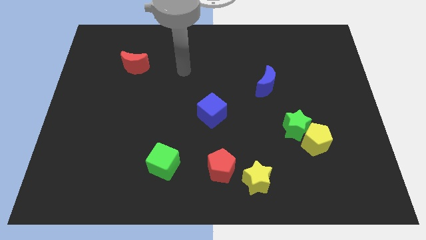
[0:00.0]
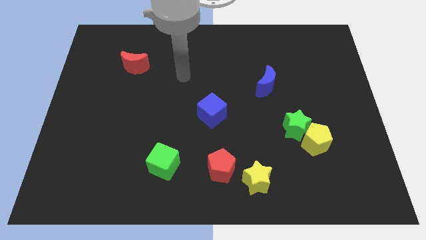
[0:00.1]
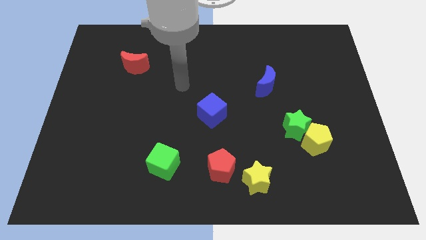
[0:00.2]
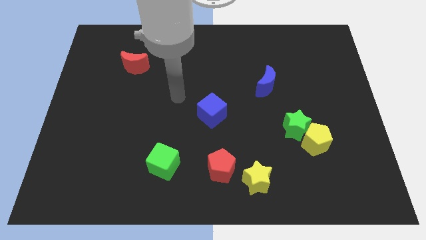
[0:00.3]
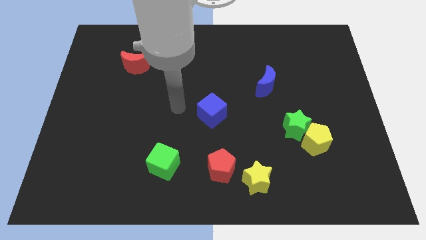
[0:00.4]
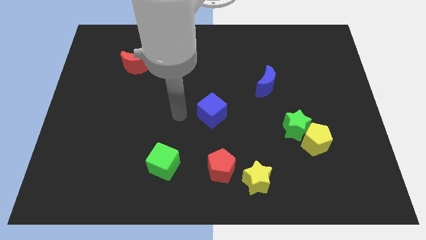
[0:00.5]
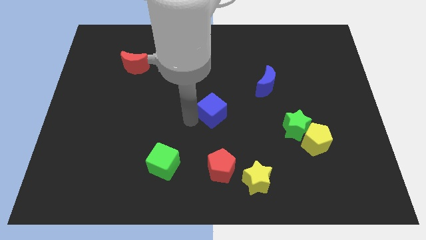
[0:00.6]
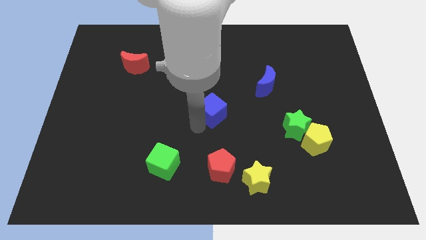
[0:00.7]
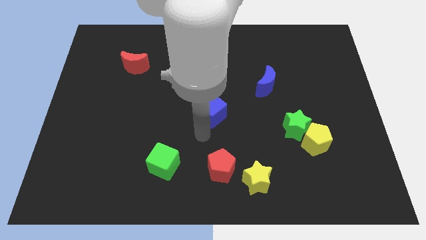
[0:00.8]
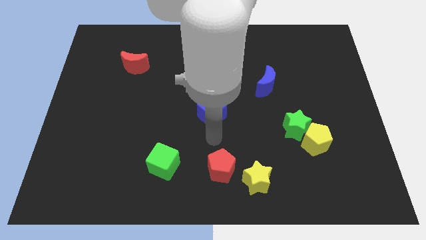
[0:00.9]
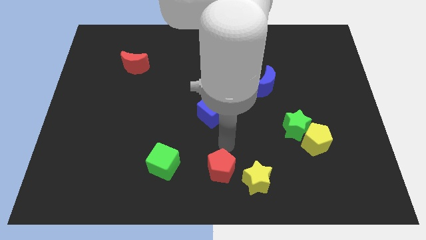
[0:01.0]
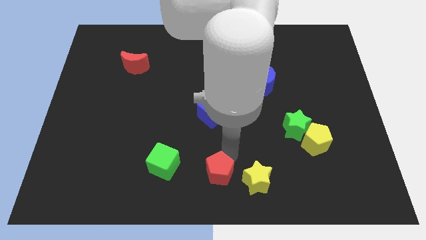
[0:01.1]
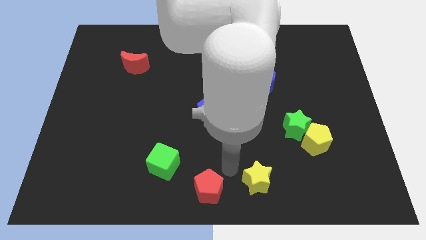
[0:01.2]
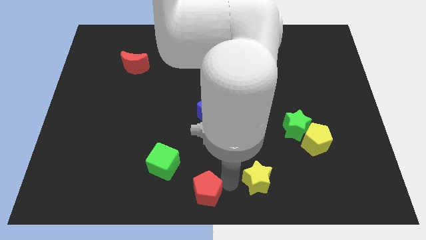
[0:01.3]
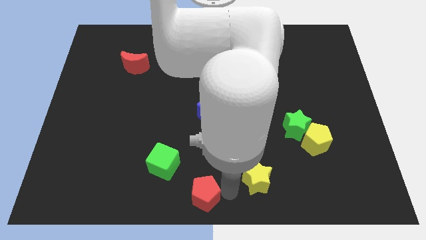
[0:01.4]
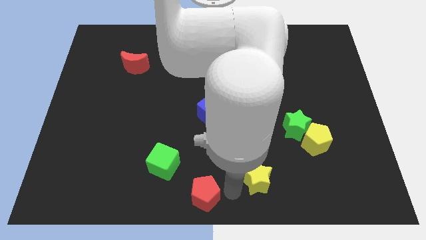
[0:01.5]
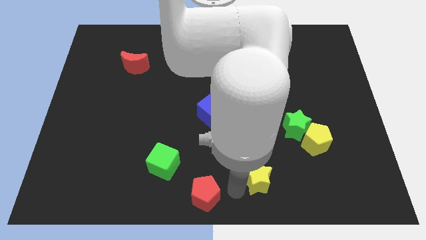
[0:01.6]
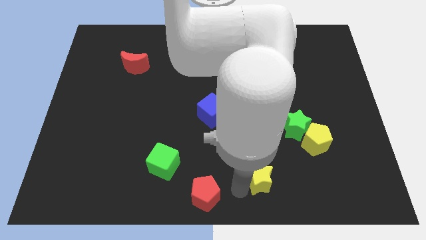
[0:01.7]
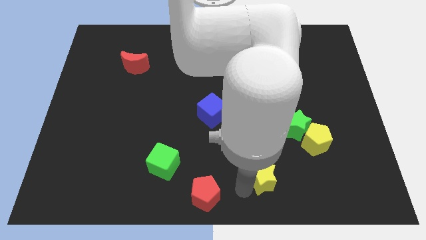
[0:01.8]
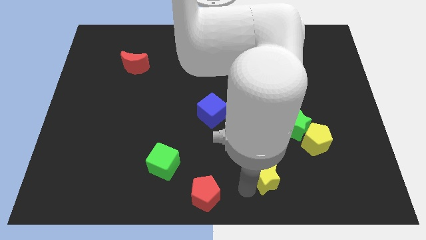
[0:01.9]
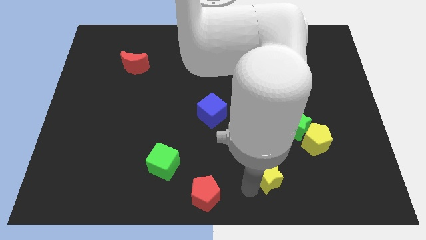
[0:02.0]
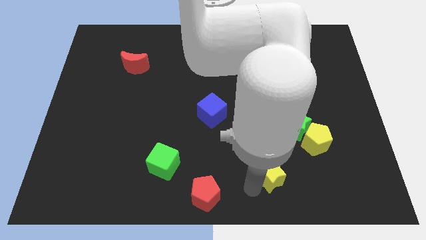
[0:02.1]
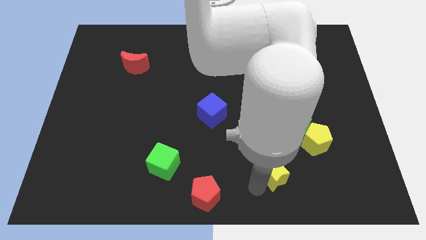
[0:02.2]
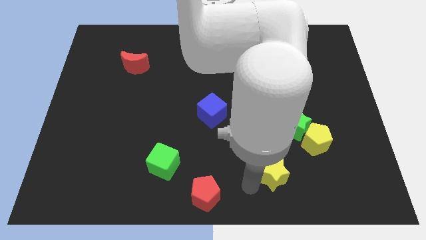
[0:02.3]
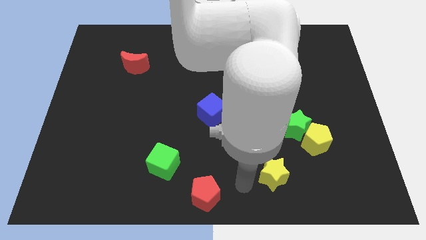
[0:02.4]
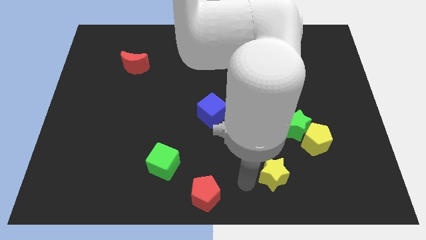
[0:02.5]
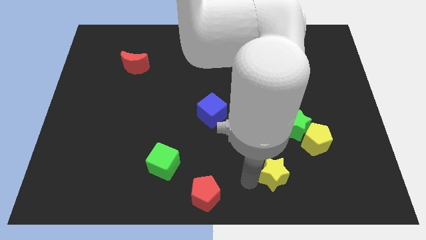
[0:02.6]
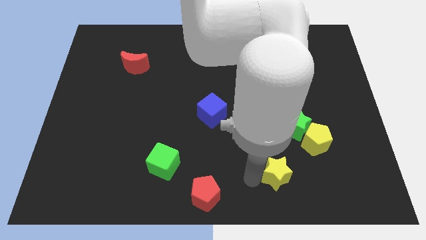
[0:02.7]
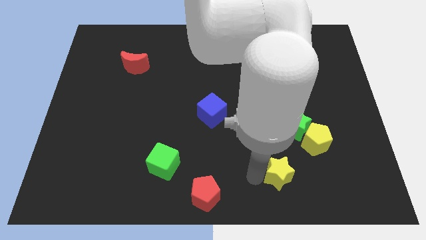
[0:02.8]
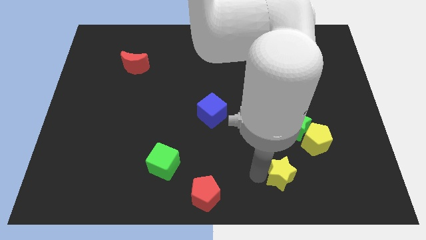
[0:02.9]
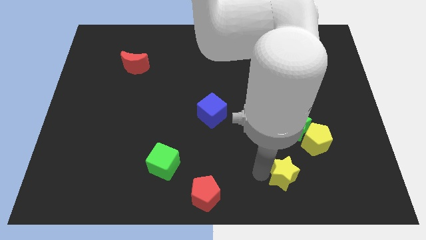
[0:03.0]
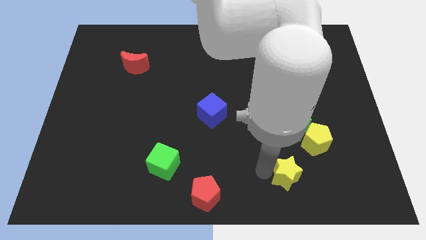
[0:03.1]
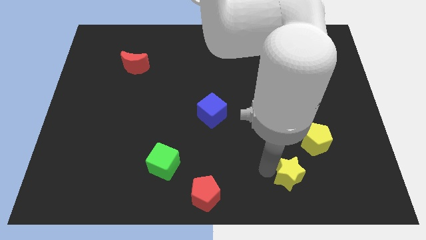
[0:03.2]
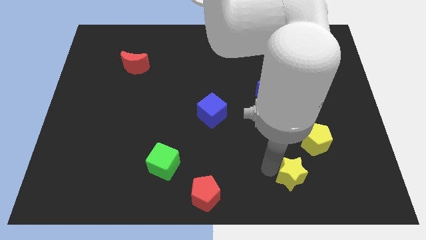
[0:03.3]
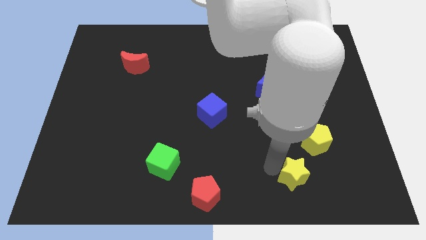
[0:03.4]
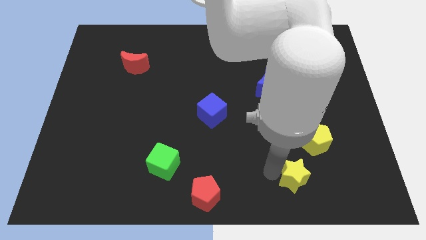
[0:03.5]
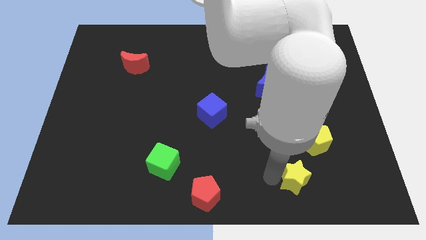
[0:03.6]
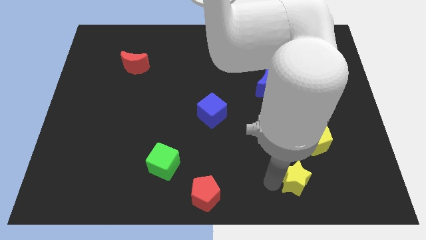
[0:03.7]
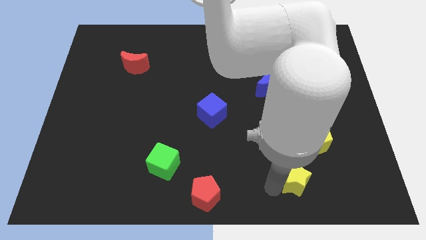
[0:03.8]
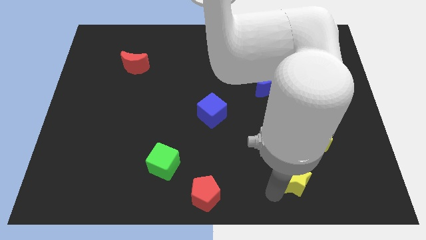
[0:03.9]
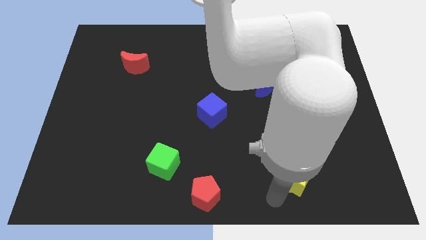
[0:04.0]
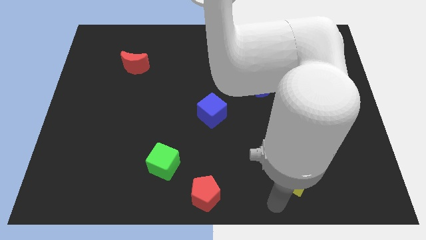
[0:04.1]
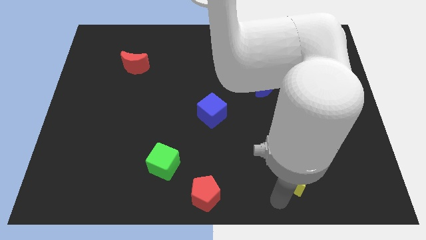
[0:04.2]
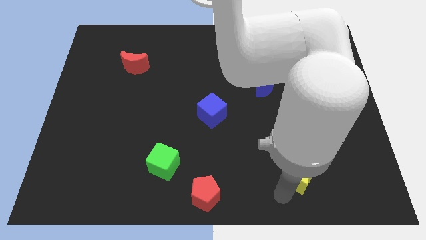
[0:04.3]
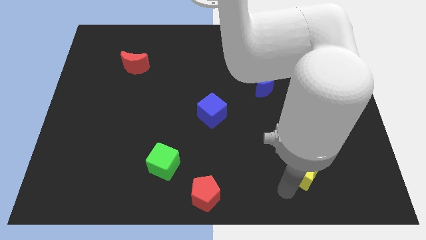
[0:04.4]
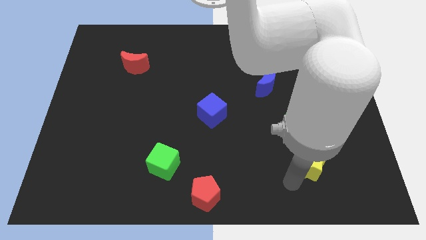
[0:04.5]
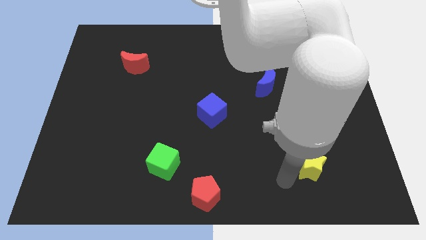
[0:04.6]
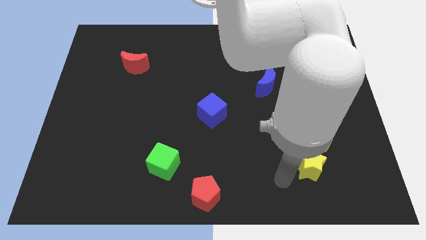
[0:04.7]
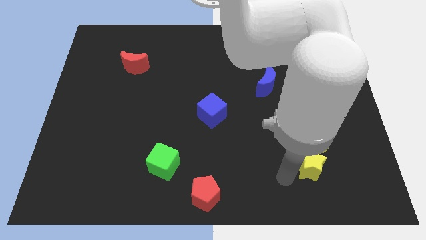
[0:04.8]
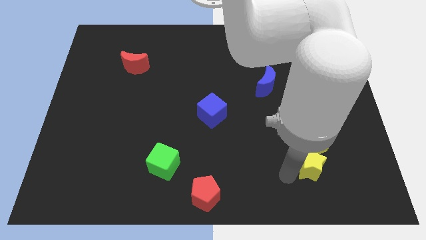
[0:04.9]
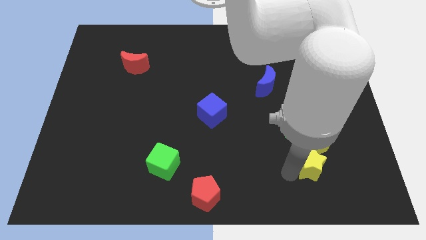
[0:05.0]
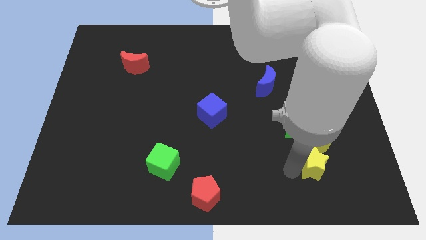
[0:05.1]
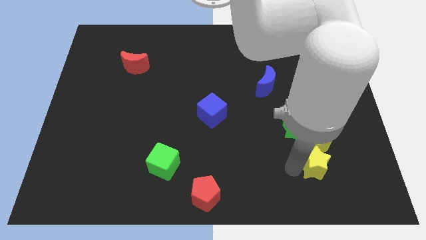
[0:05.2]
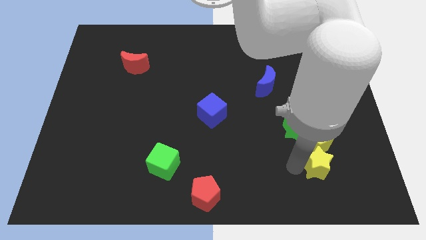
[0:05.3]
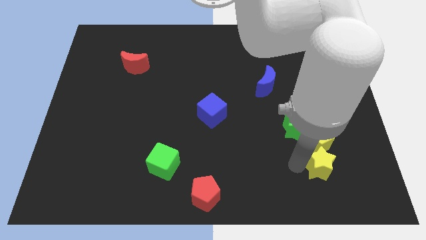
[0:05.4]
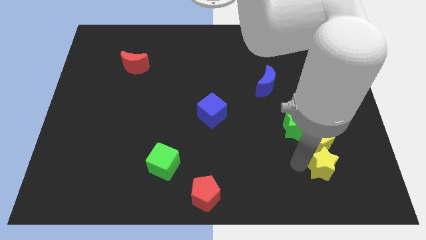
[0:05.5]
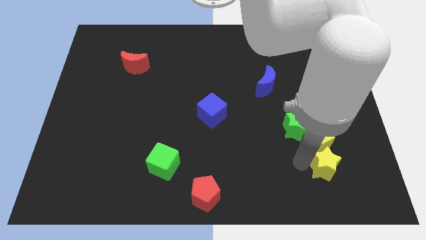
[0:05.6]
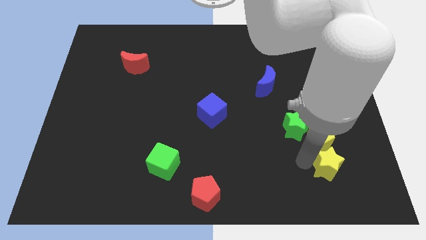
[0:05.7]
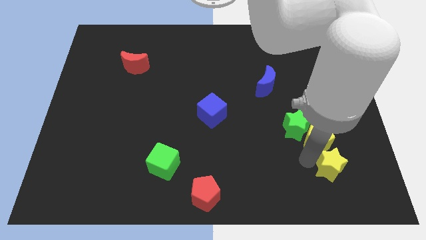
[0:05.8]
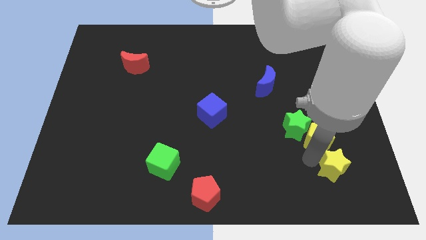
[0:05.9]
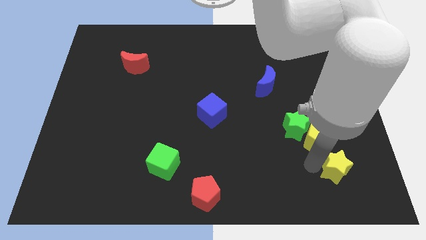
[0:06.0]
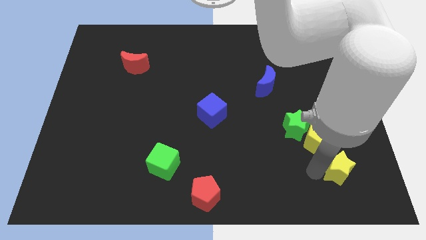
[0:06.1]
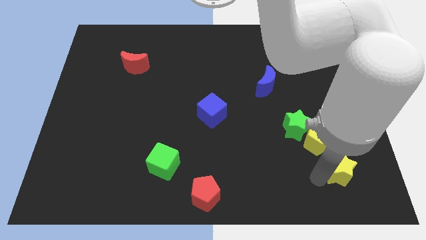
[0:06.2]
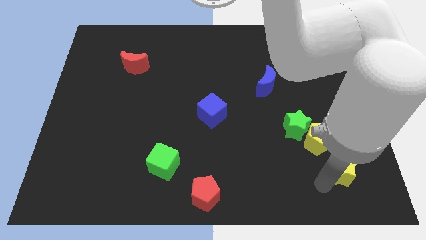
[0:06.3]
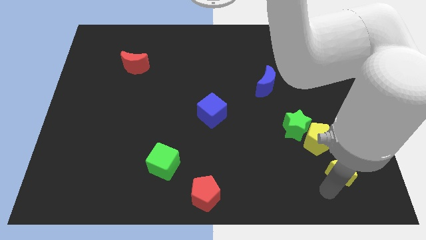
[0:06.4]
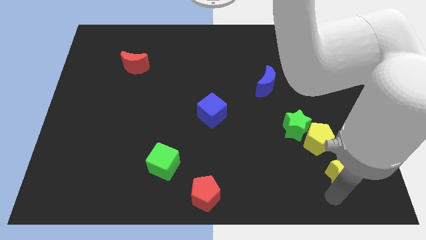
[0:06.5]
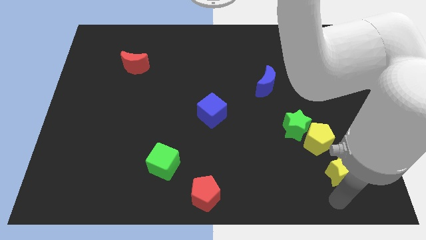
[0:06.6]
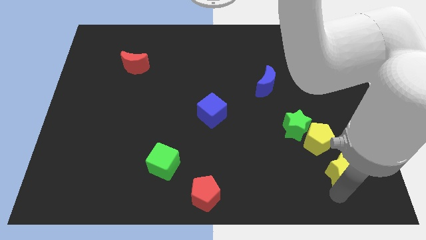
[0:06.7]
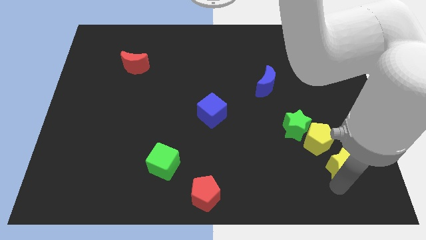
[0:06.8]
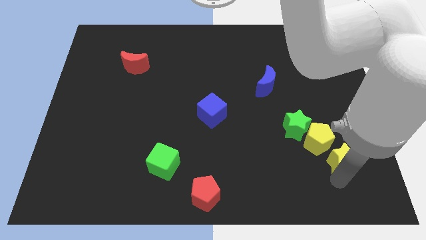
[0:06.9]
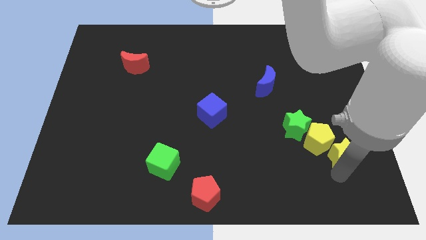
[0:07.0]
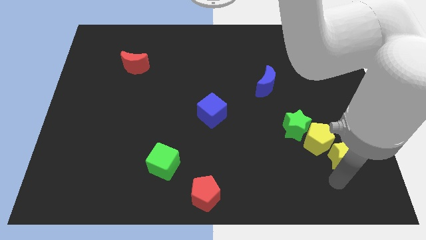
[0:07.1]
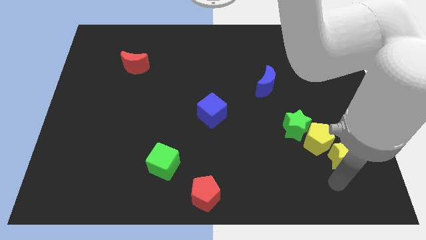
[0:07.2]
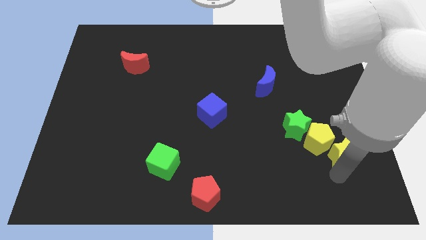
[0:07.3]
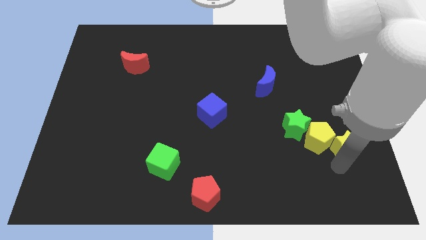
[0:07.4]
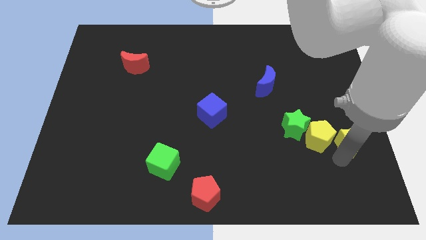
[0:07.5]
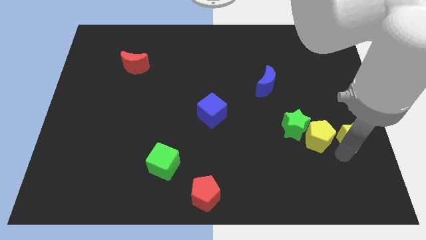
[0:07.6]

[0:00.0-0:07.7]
push the yellow star to the right side of the board
